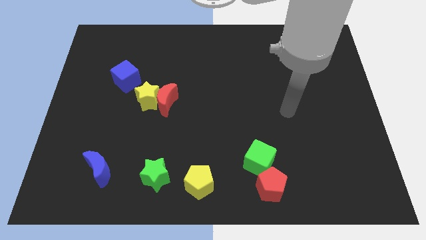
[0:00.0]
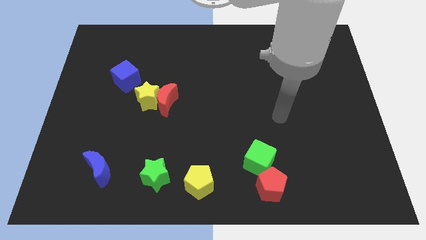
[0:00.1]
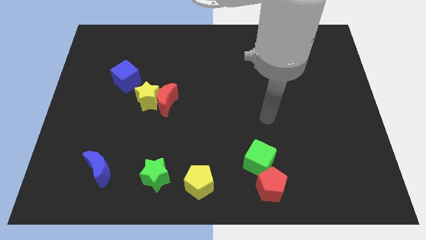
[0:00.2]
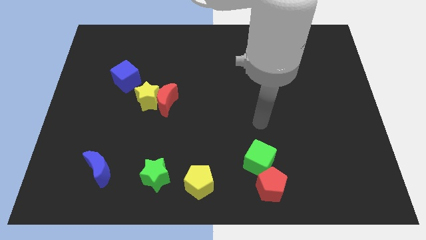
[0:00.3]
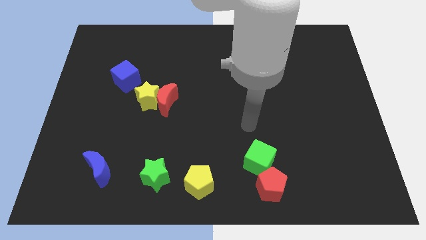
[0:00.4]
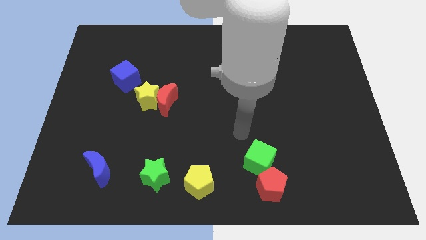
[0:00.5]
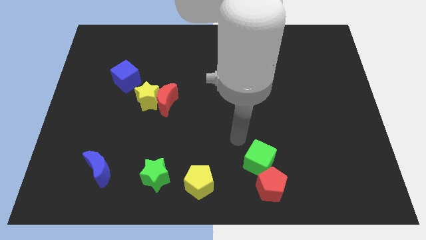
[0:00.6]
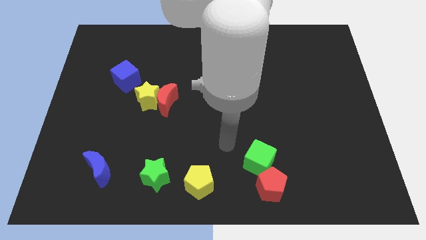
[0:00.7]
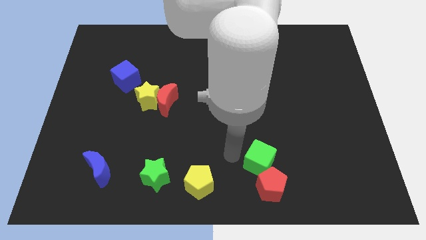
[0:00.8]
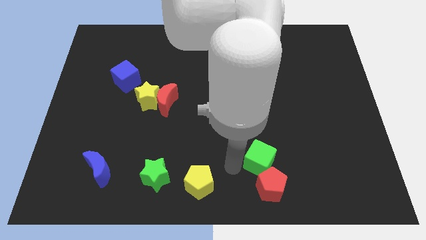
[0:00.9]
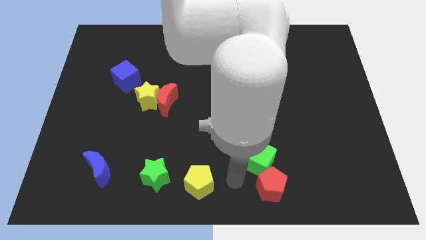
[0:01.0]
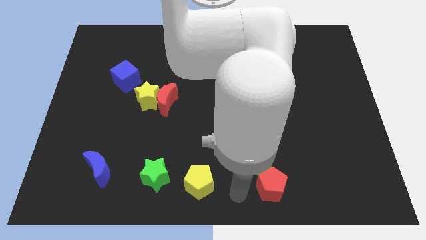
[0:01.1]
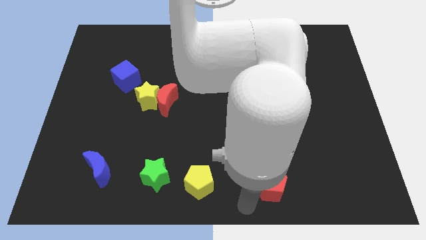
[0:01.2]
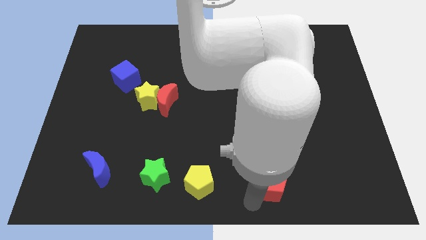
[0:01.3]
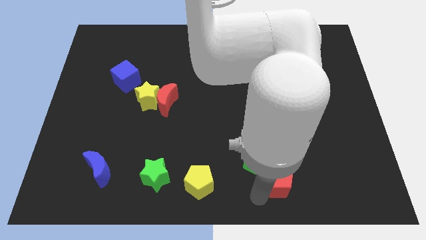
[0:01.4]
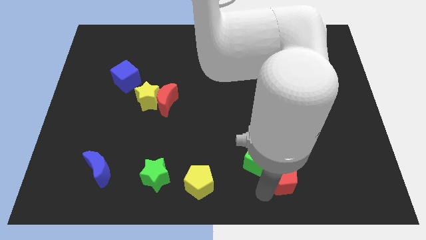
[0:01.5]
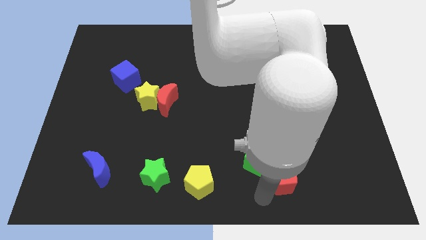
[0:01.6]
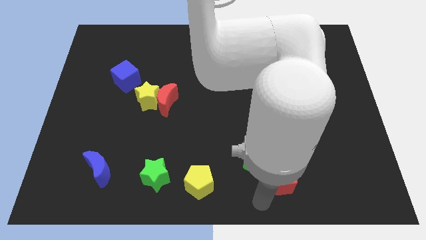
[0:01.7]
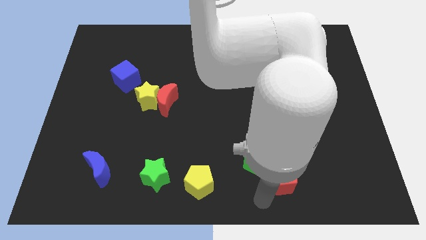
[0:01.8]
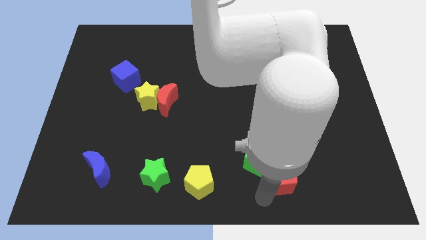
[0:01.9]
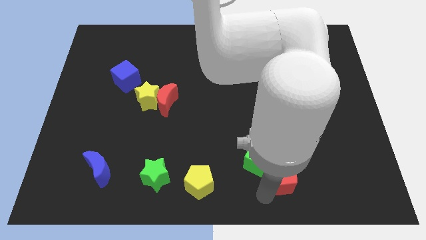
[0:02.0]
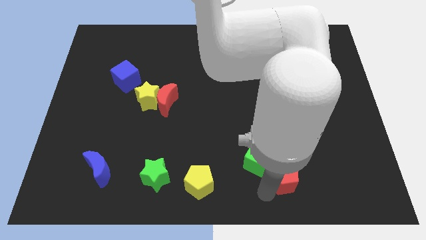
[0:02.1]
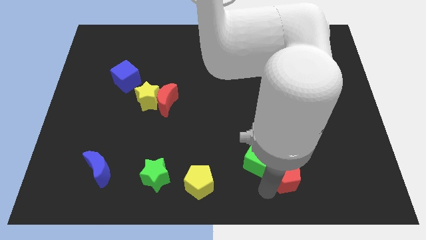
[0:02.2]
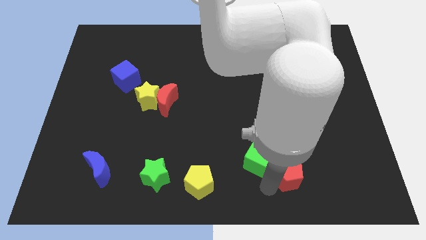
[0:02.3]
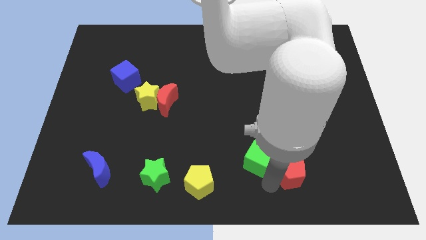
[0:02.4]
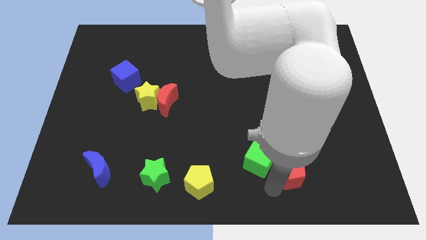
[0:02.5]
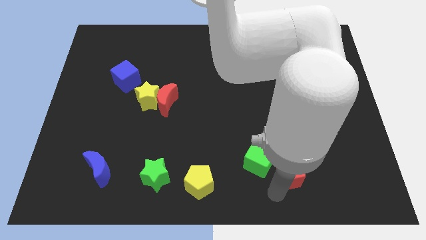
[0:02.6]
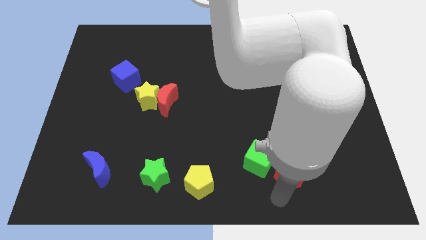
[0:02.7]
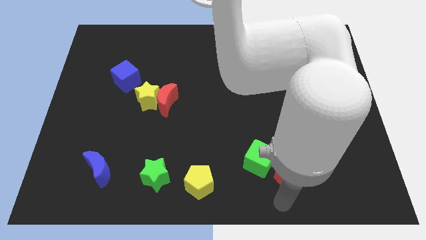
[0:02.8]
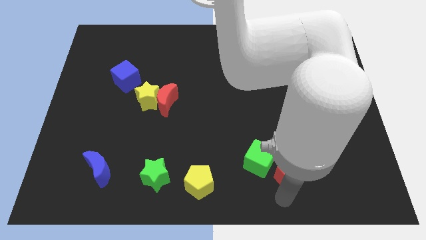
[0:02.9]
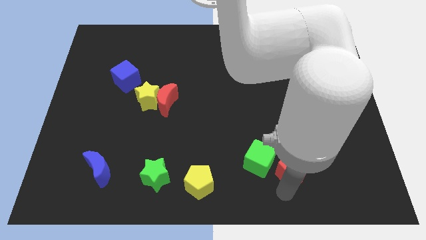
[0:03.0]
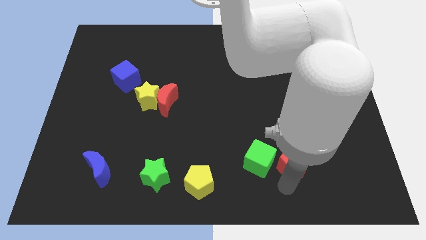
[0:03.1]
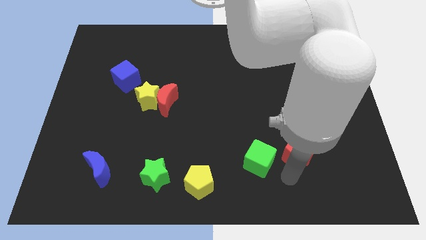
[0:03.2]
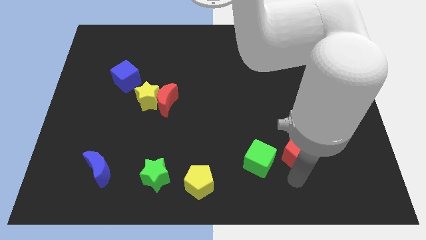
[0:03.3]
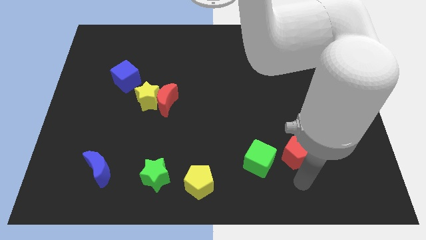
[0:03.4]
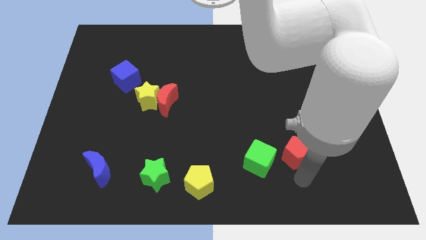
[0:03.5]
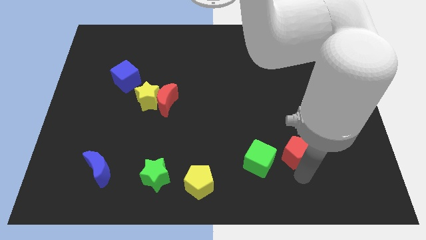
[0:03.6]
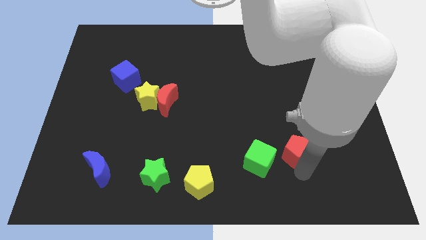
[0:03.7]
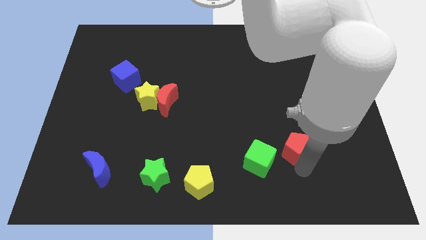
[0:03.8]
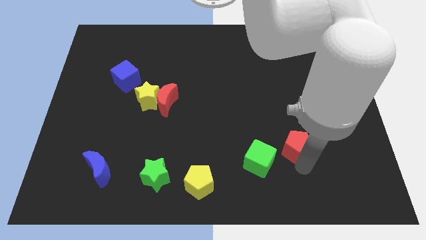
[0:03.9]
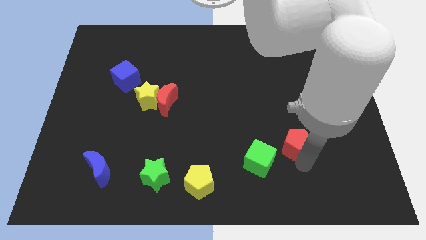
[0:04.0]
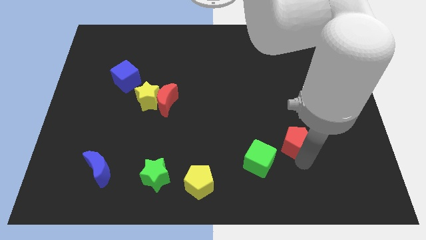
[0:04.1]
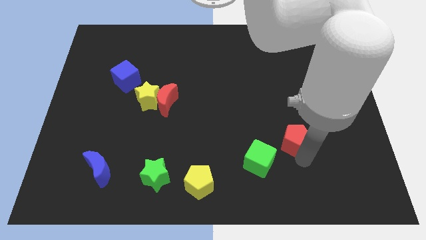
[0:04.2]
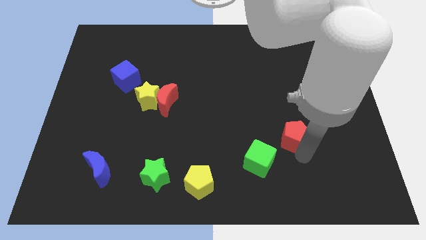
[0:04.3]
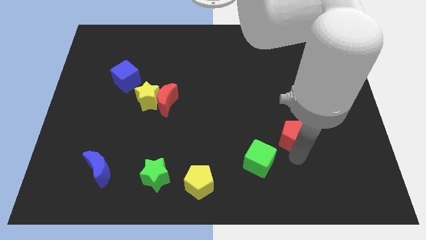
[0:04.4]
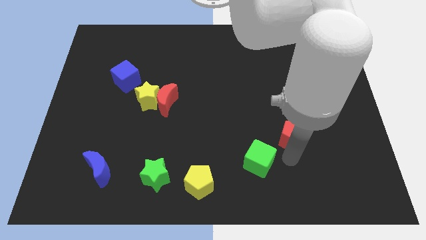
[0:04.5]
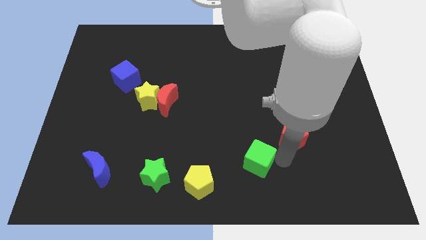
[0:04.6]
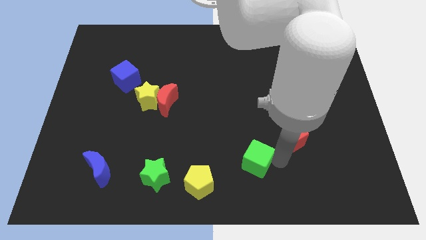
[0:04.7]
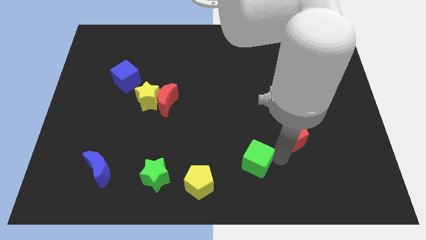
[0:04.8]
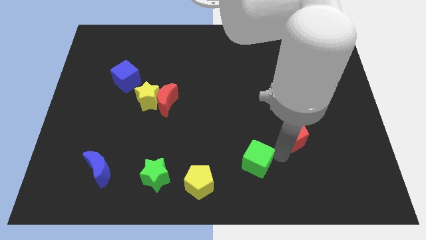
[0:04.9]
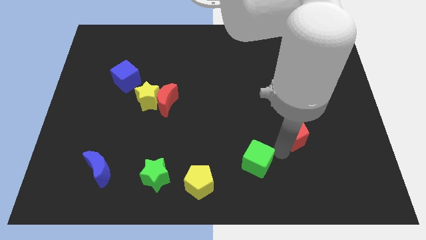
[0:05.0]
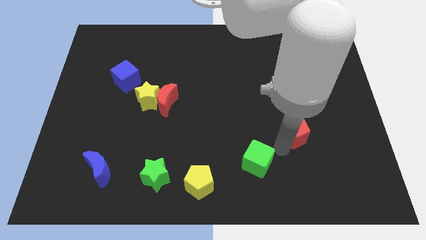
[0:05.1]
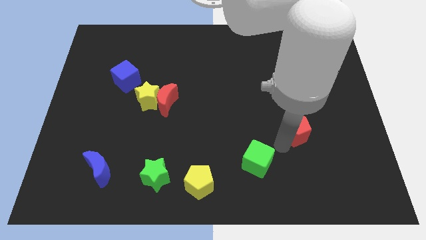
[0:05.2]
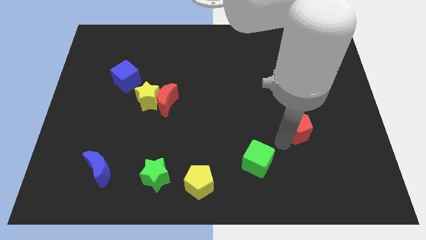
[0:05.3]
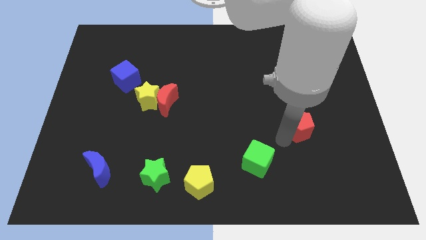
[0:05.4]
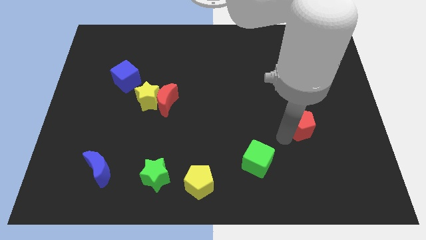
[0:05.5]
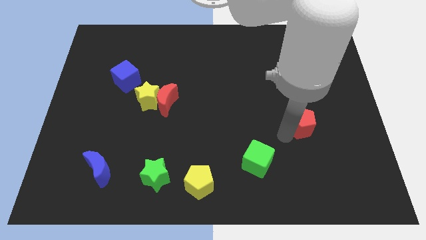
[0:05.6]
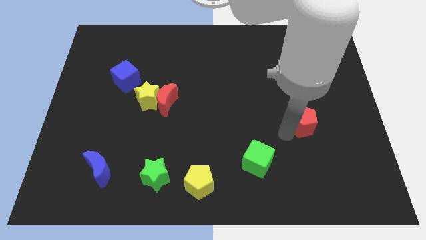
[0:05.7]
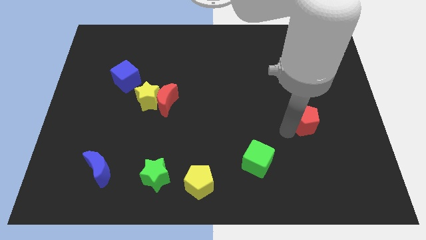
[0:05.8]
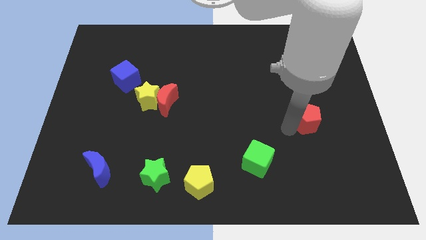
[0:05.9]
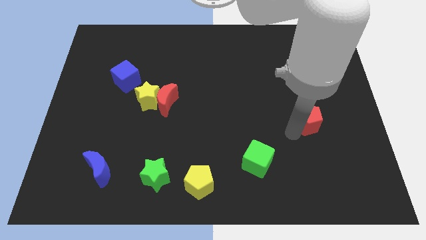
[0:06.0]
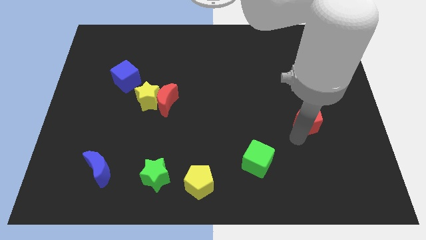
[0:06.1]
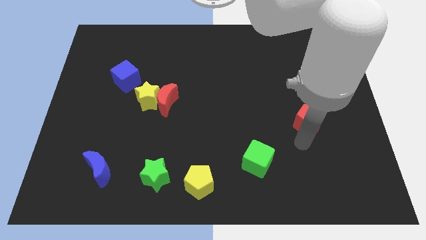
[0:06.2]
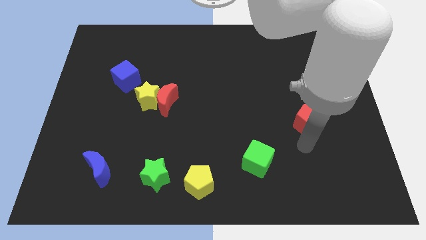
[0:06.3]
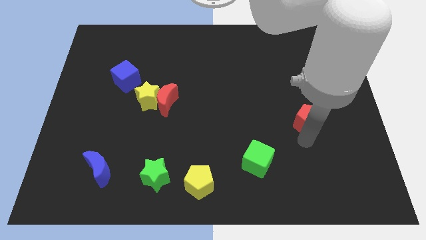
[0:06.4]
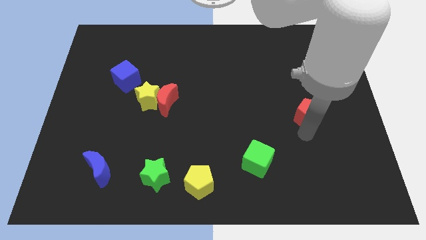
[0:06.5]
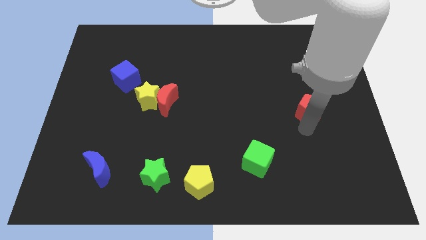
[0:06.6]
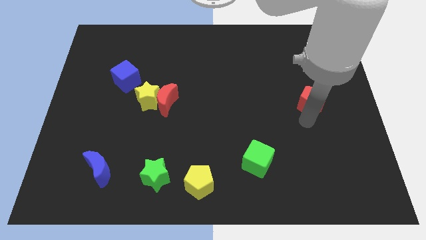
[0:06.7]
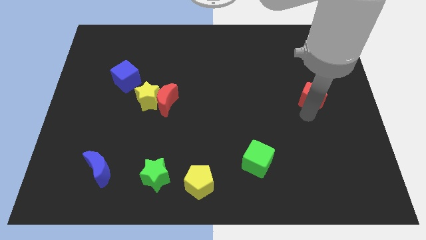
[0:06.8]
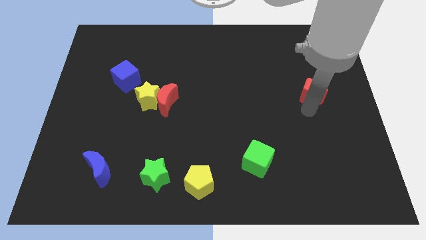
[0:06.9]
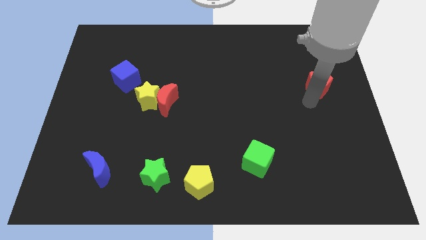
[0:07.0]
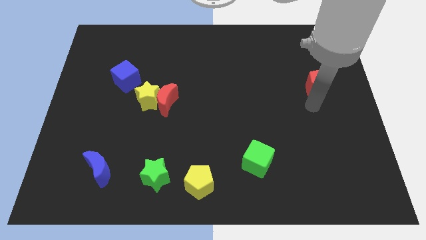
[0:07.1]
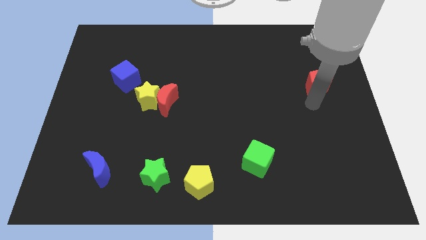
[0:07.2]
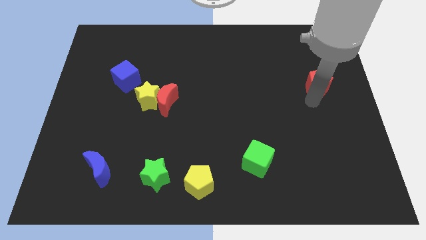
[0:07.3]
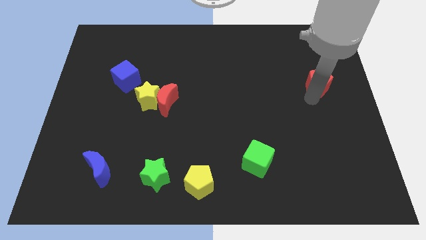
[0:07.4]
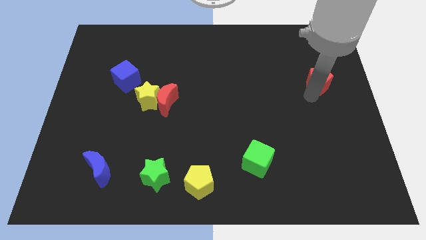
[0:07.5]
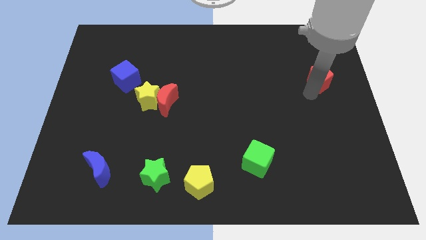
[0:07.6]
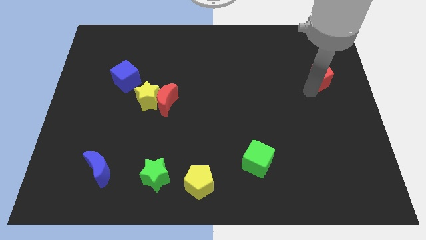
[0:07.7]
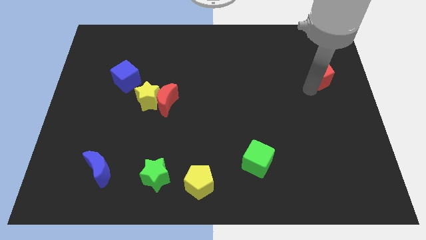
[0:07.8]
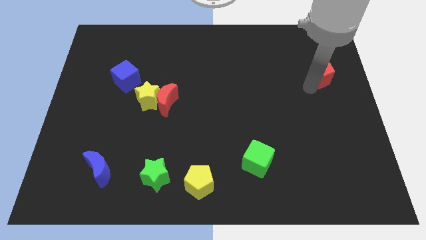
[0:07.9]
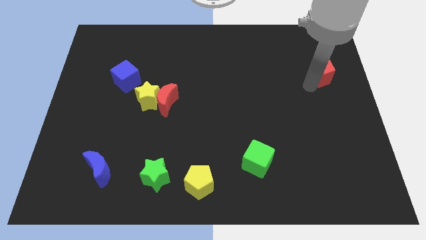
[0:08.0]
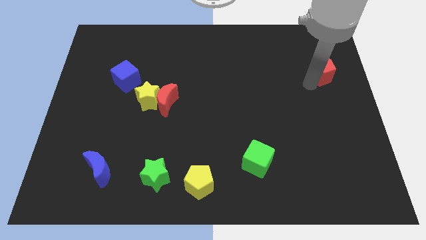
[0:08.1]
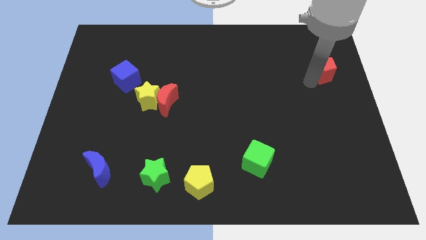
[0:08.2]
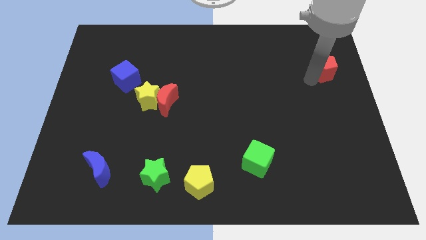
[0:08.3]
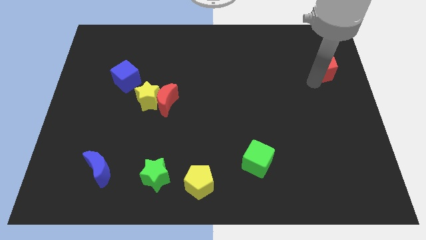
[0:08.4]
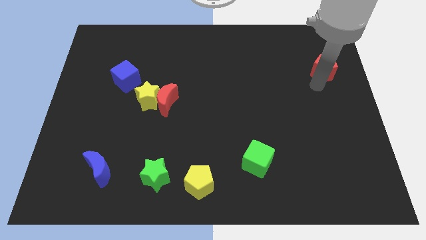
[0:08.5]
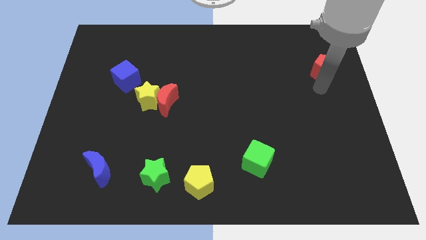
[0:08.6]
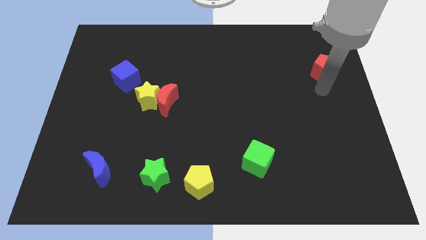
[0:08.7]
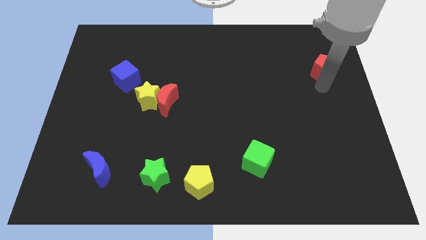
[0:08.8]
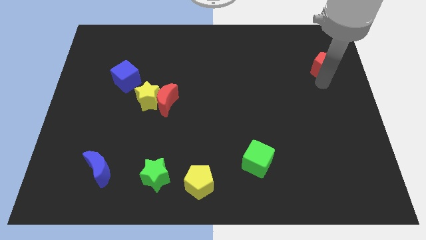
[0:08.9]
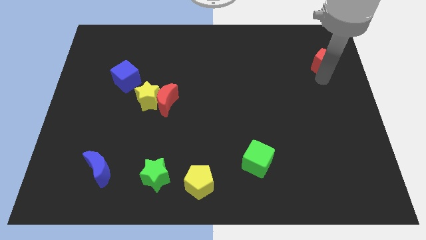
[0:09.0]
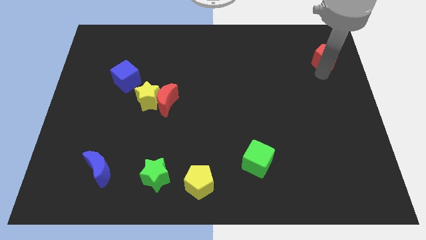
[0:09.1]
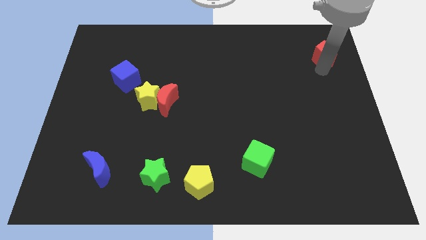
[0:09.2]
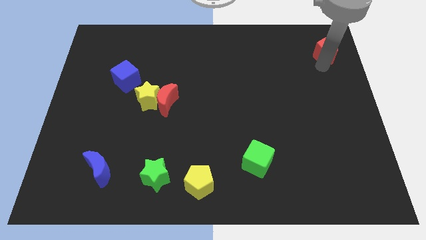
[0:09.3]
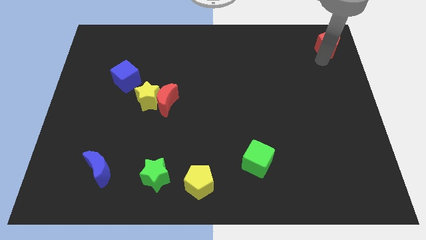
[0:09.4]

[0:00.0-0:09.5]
put the red pentagon to the top right corner
